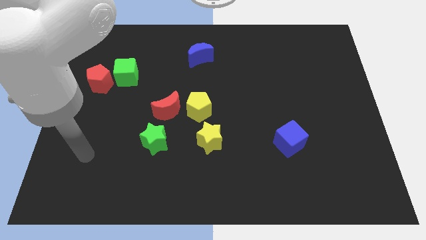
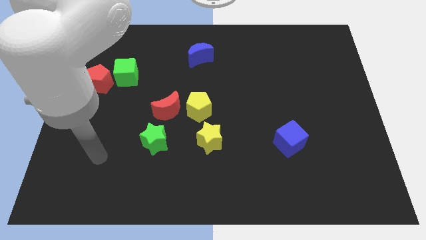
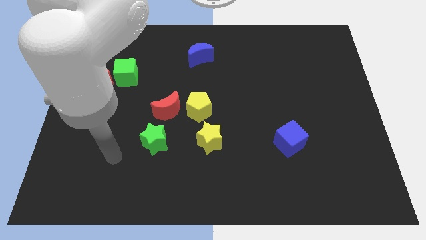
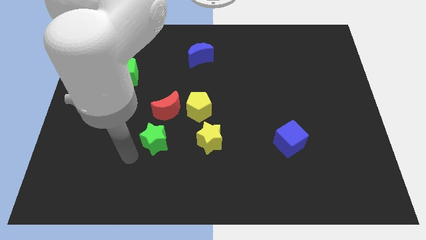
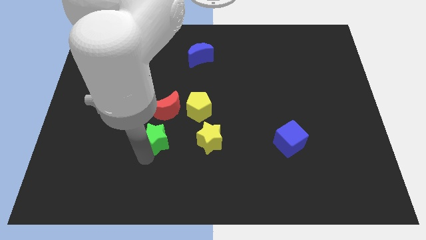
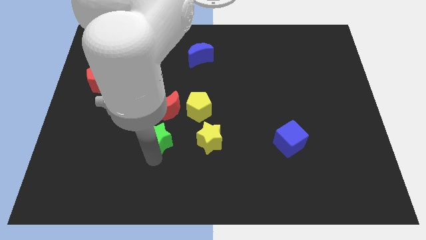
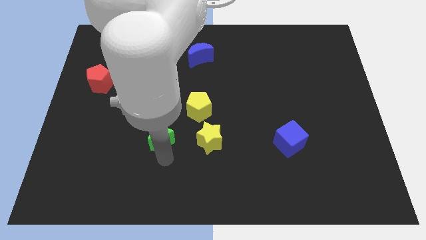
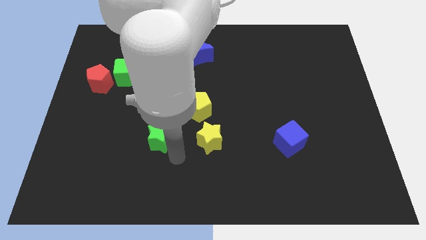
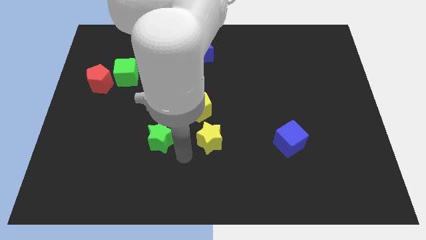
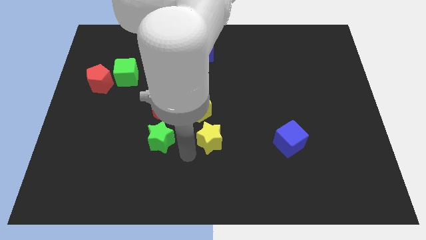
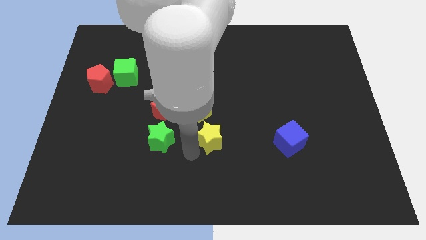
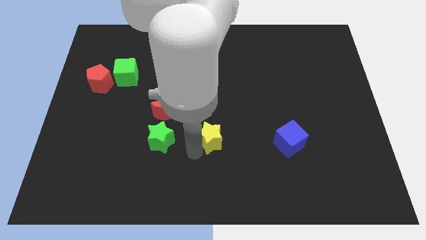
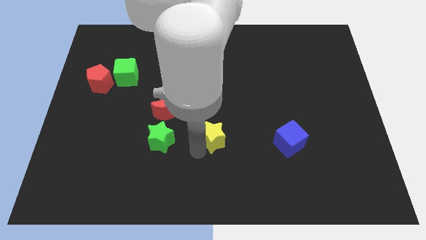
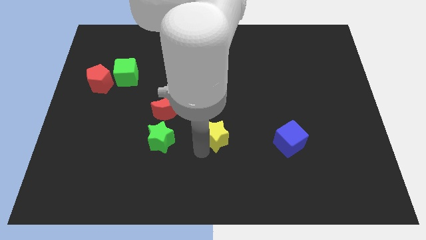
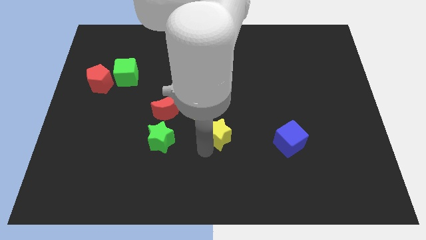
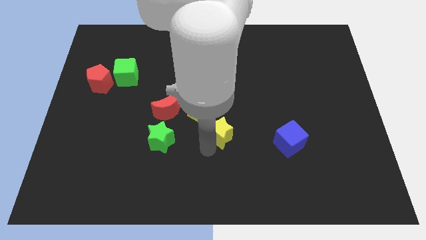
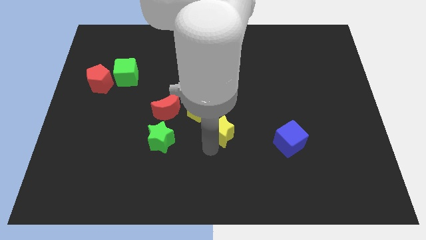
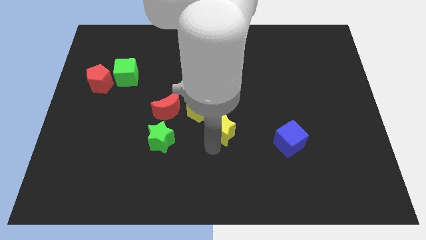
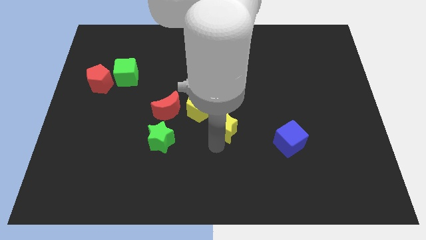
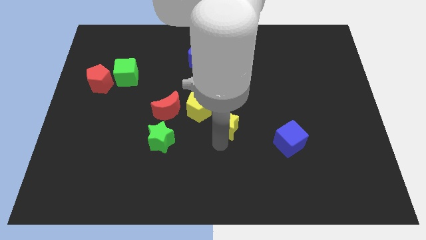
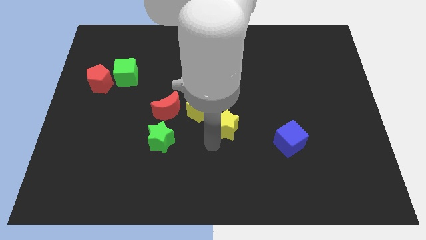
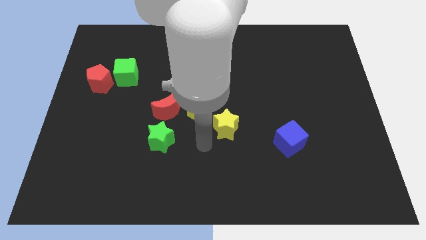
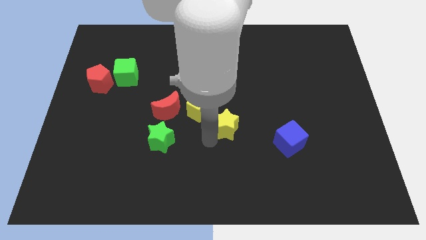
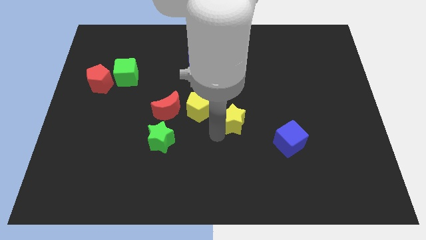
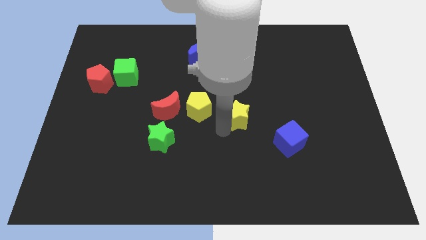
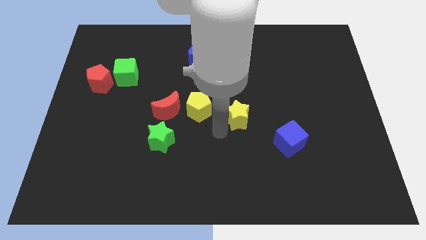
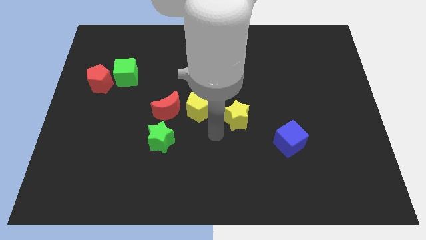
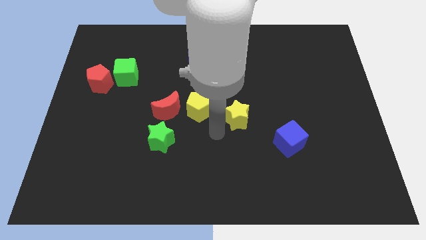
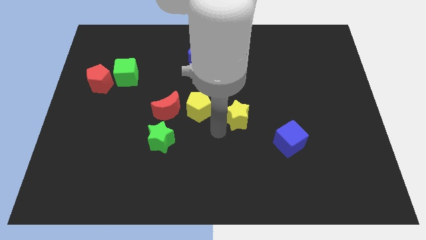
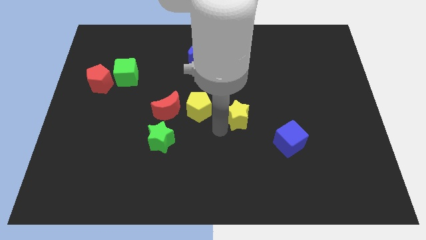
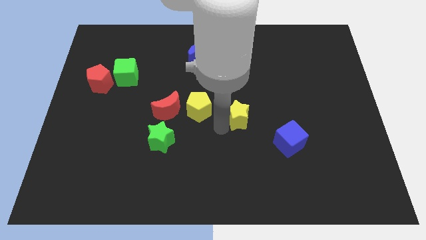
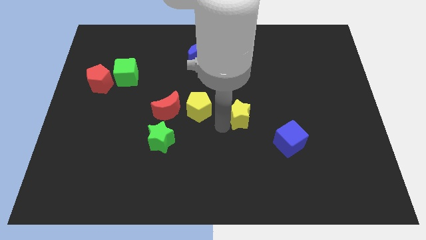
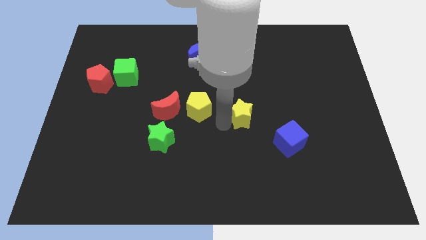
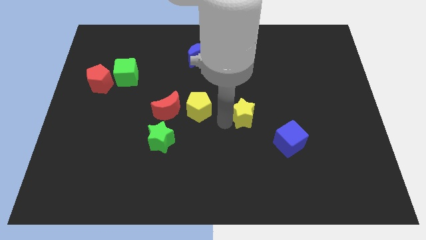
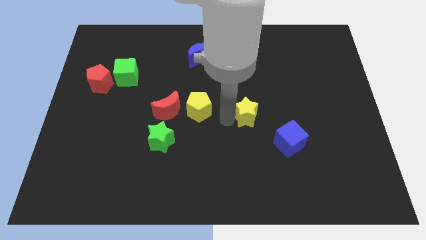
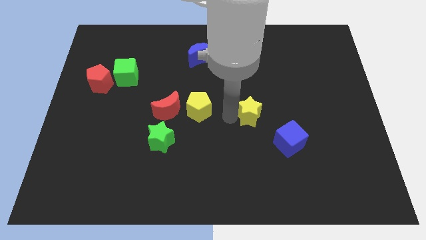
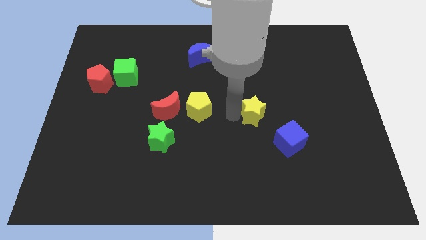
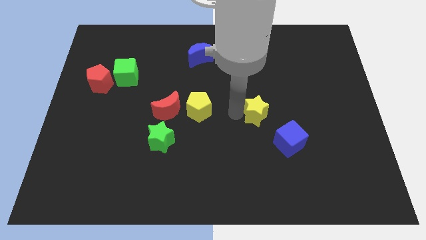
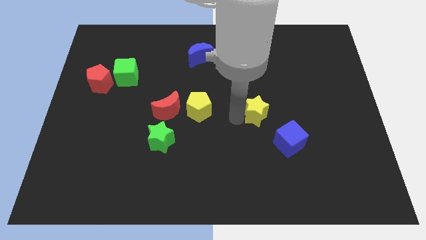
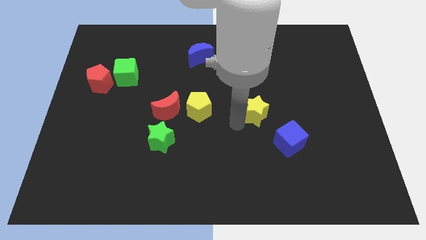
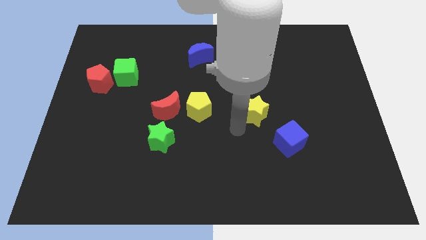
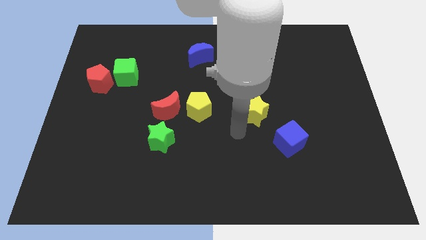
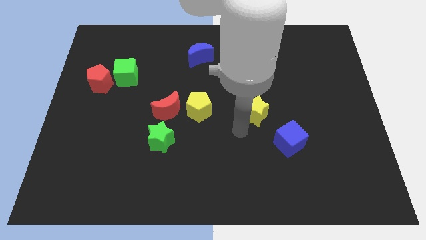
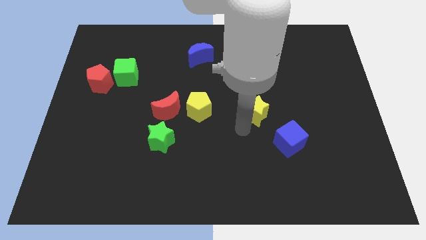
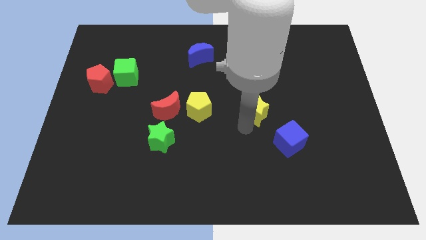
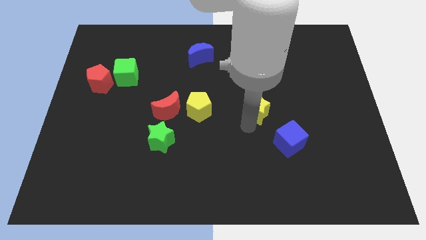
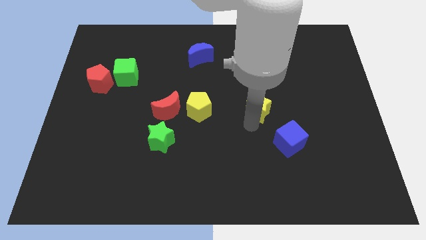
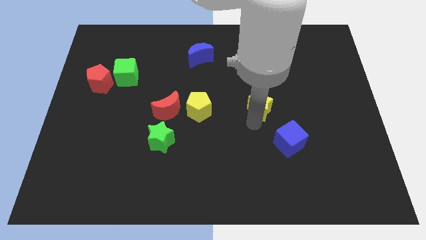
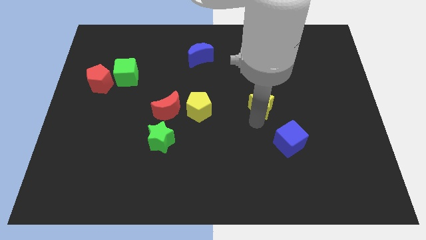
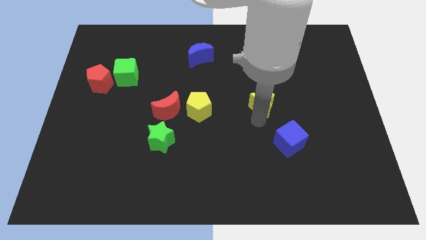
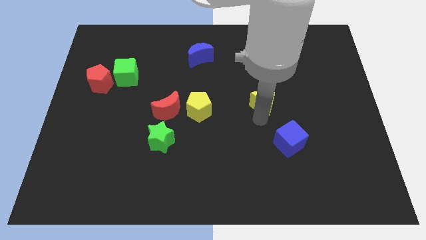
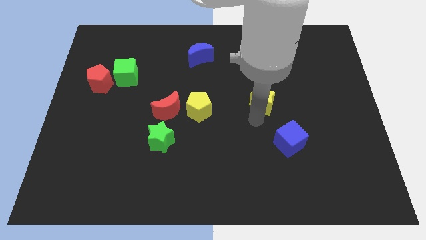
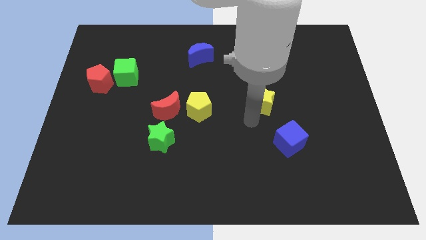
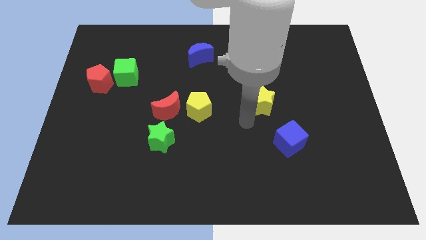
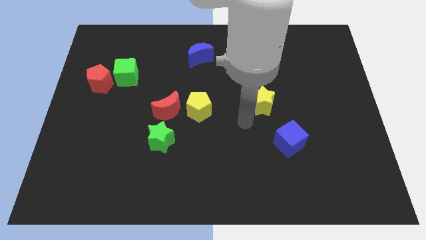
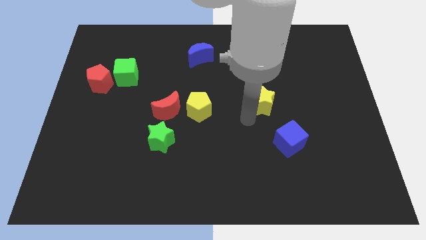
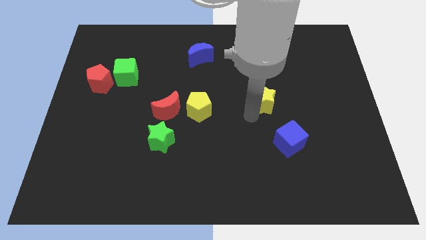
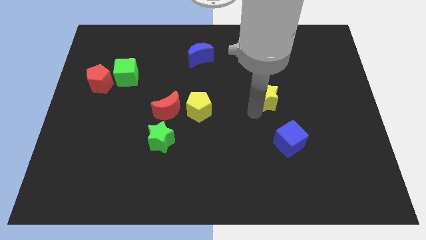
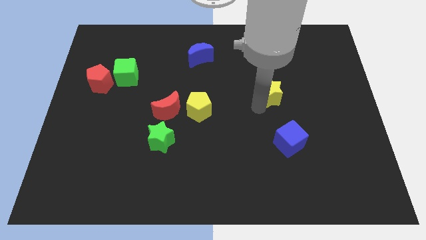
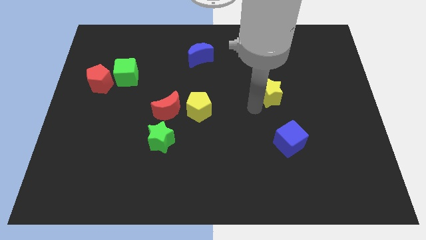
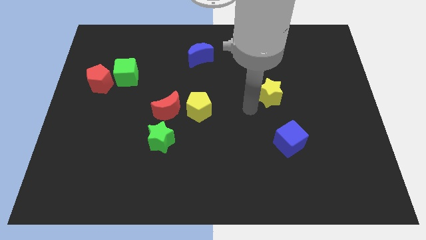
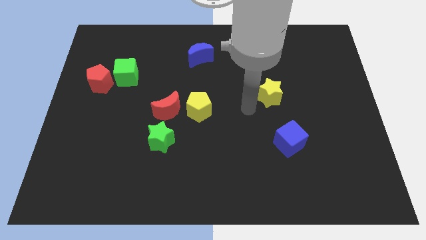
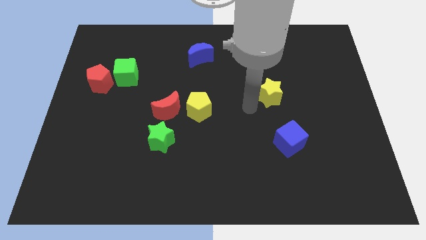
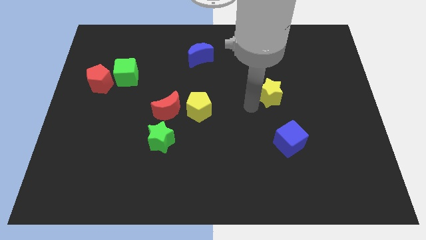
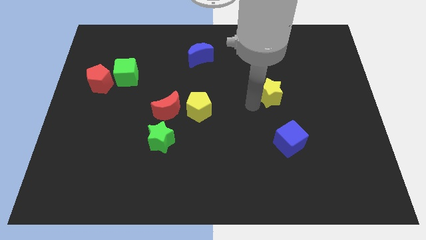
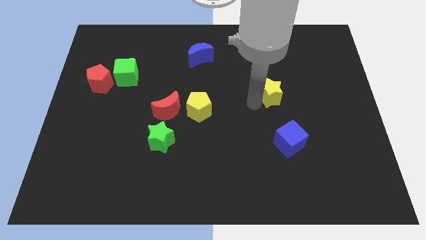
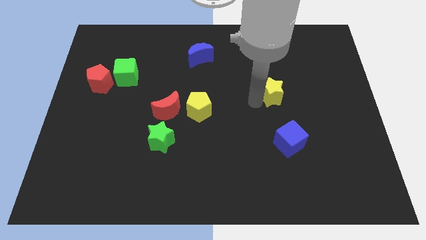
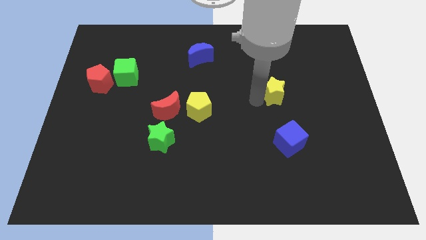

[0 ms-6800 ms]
push the yellow star upwards and to the right diagonally

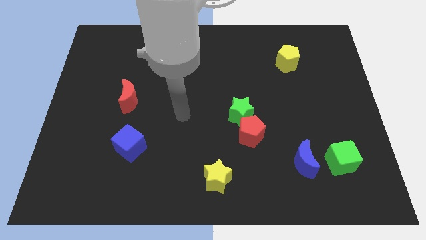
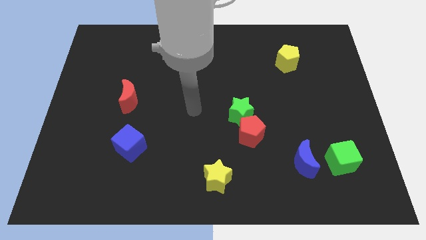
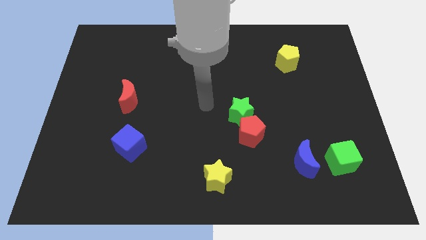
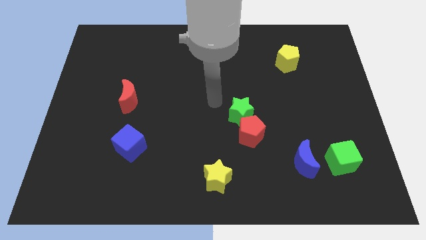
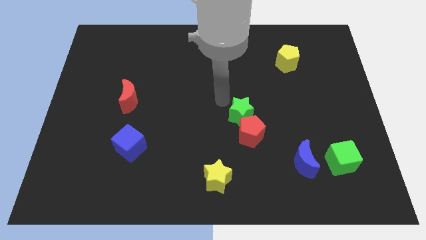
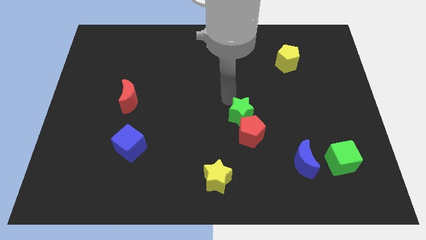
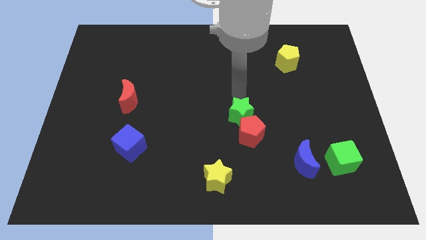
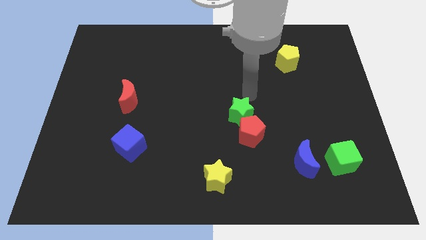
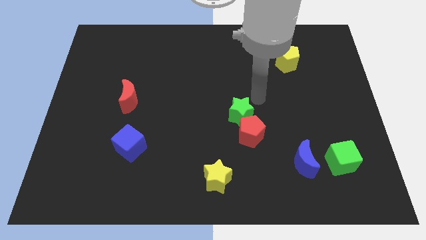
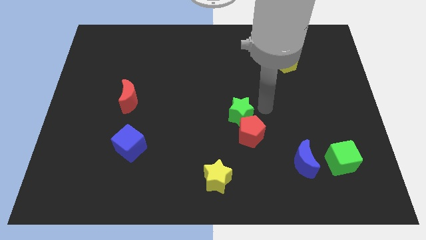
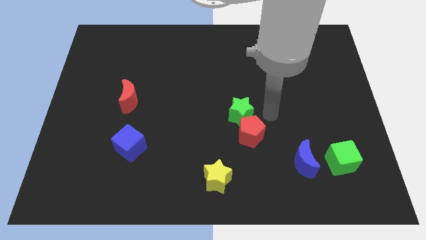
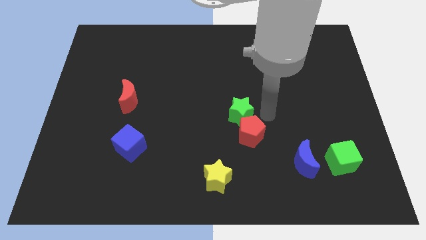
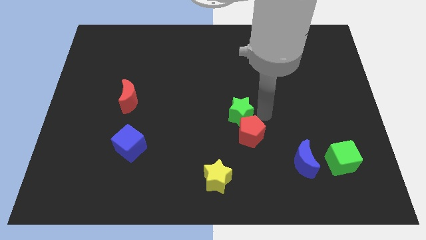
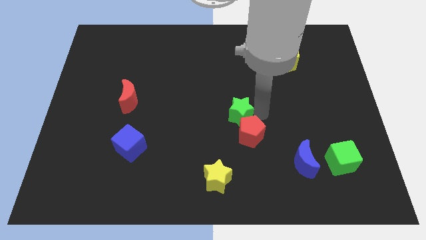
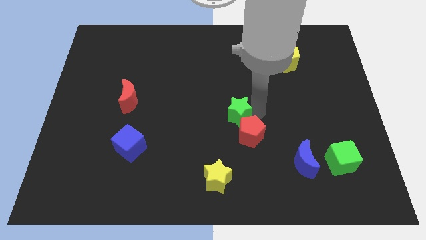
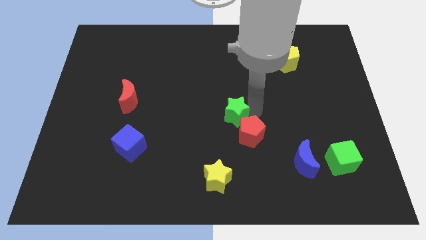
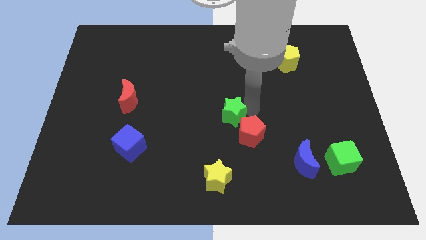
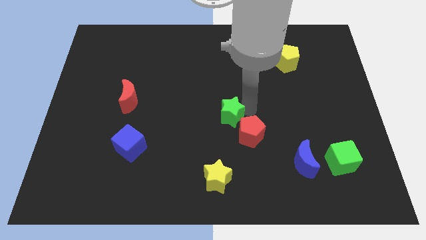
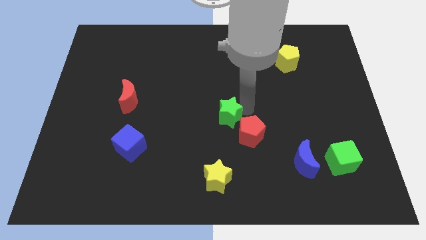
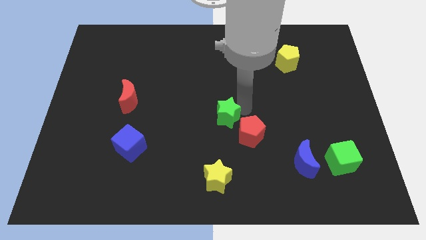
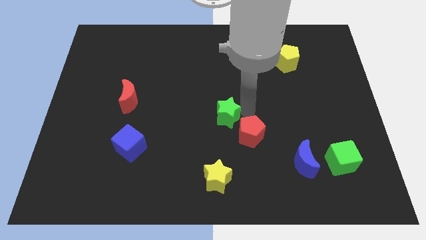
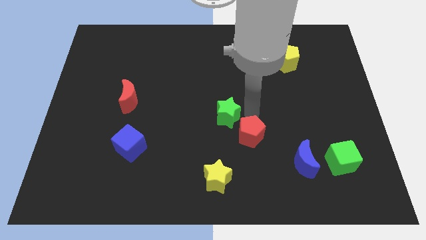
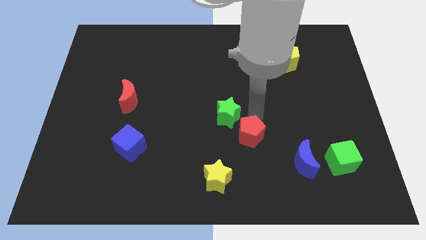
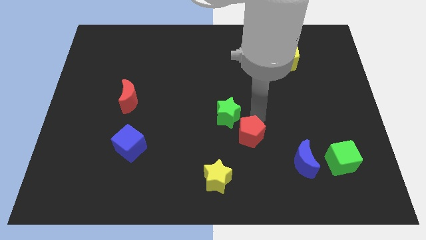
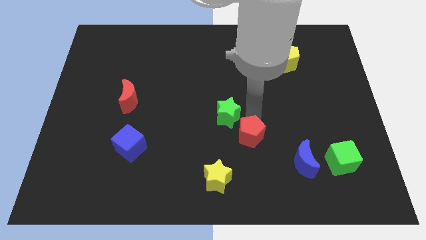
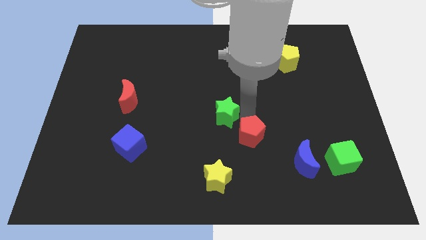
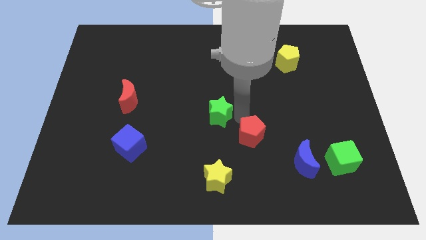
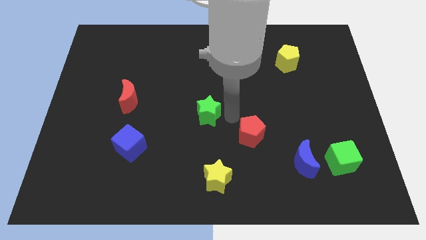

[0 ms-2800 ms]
push the green star to the left a little
